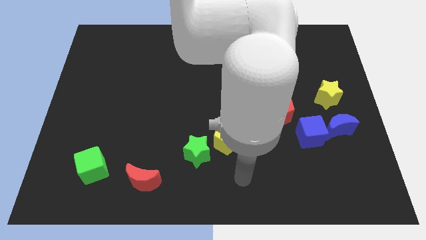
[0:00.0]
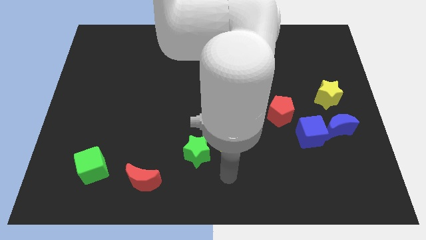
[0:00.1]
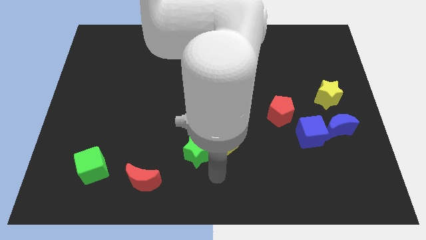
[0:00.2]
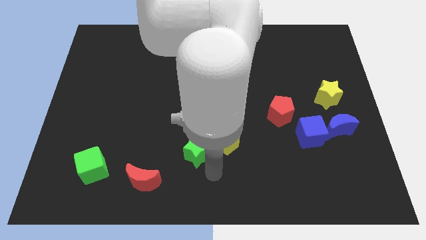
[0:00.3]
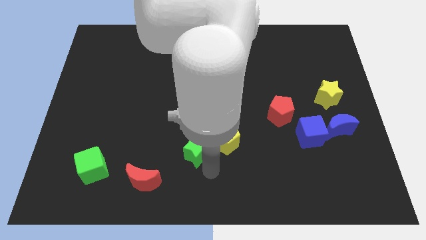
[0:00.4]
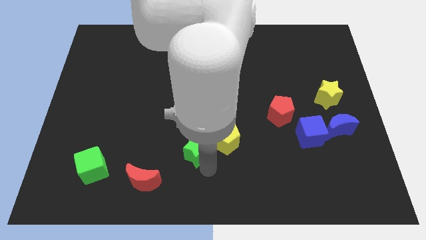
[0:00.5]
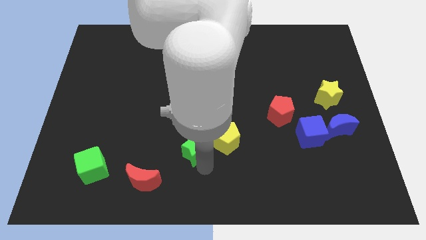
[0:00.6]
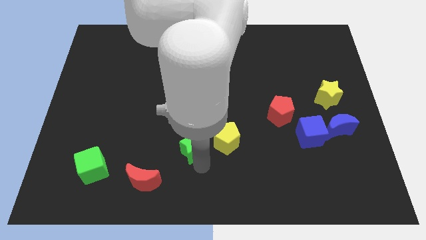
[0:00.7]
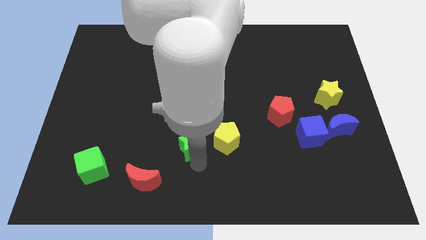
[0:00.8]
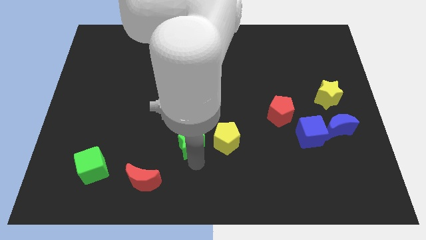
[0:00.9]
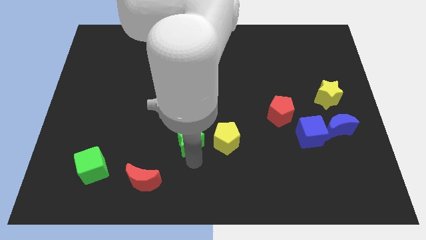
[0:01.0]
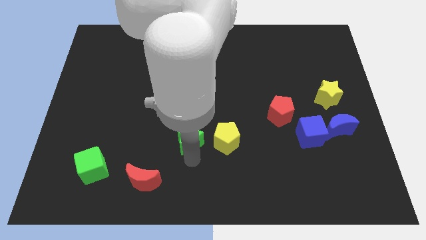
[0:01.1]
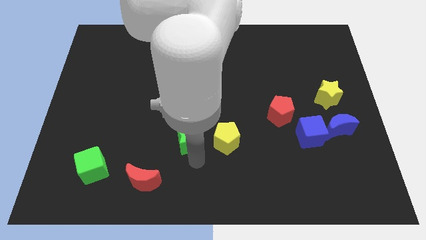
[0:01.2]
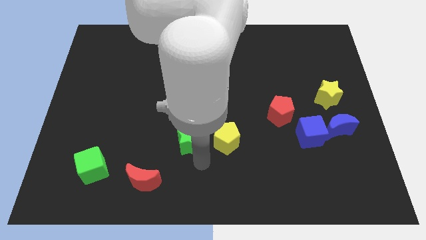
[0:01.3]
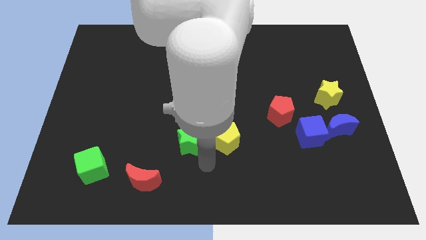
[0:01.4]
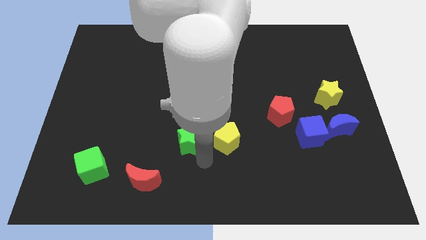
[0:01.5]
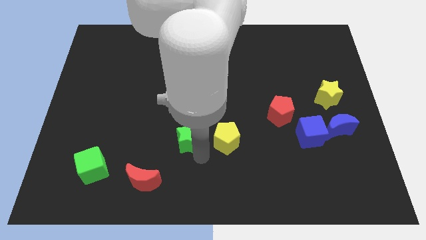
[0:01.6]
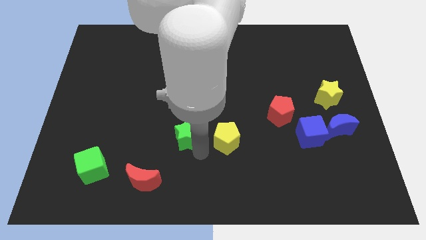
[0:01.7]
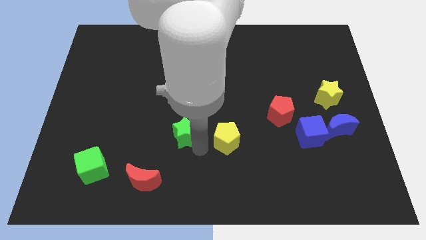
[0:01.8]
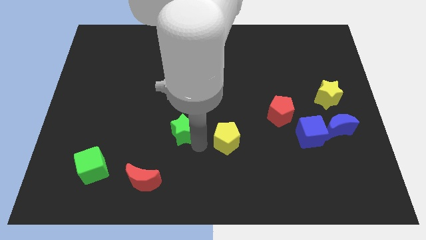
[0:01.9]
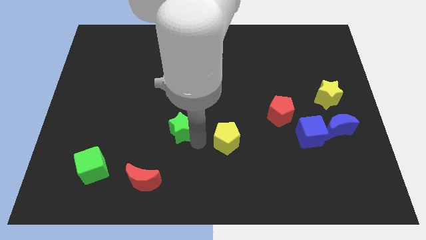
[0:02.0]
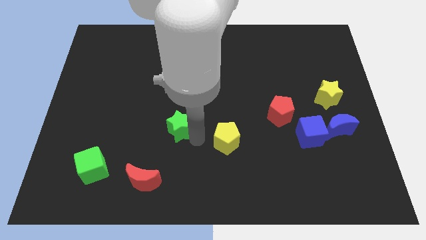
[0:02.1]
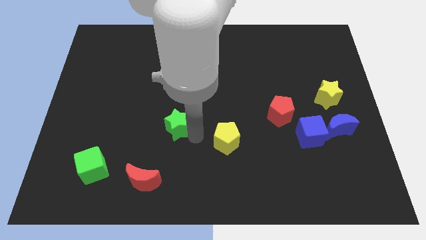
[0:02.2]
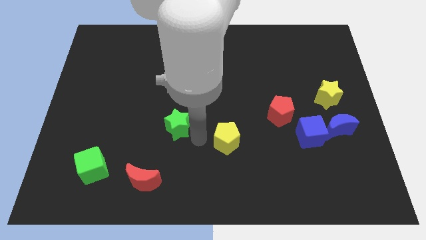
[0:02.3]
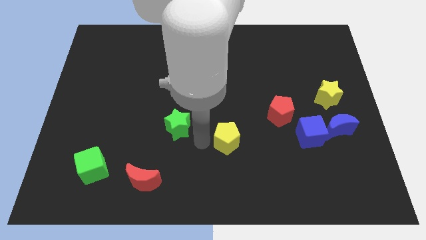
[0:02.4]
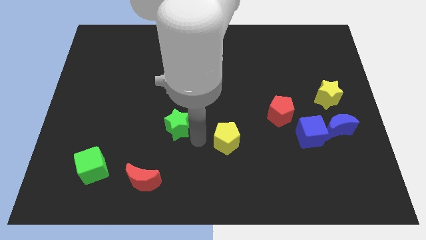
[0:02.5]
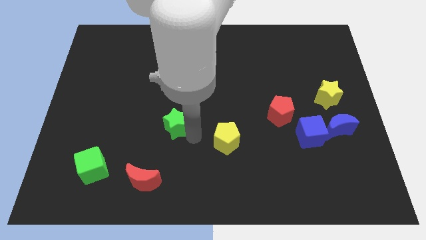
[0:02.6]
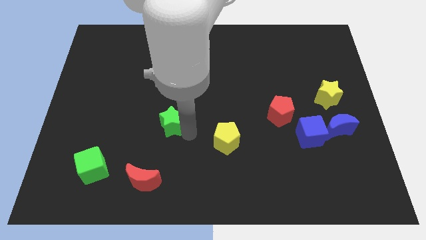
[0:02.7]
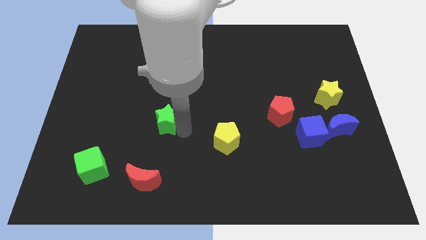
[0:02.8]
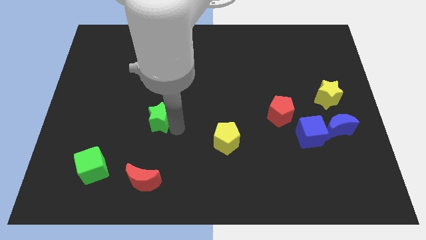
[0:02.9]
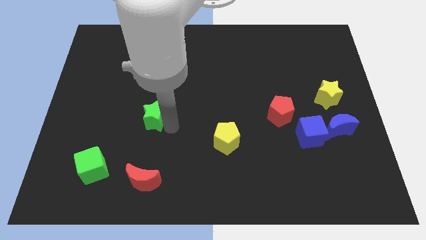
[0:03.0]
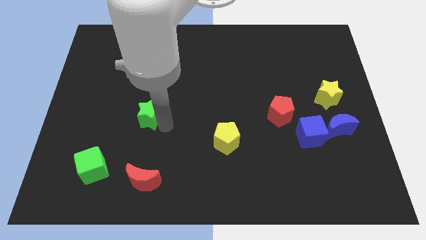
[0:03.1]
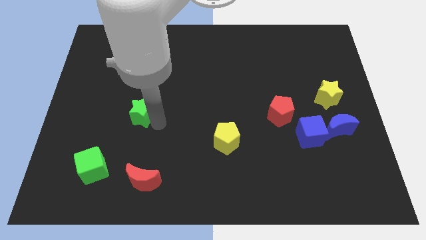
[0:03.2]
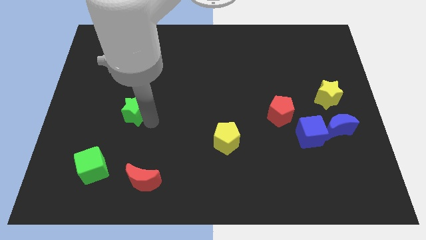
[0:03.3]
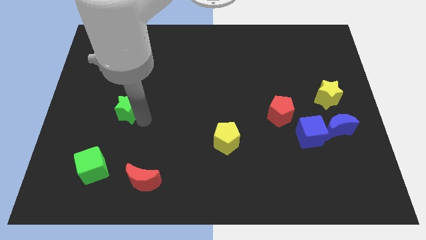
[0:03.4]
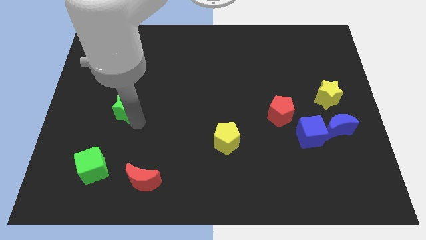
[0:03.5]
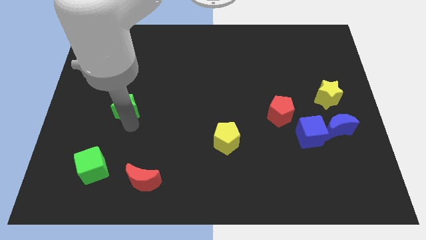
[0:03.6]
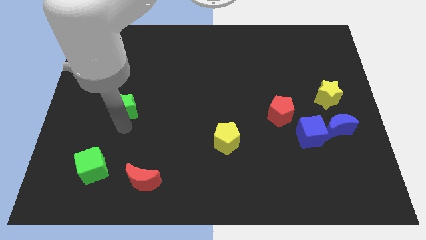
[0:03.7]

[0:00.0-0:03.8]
push the green star diagonally up and to the left

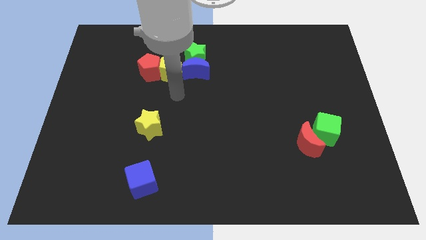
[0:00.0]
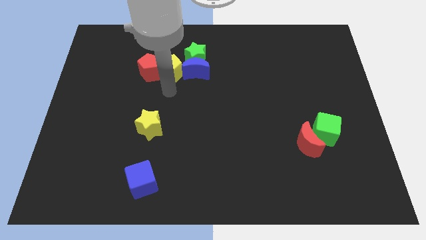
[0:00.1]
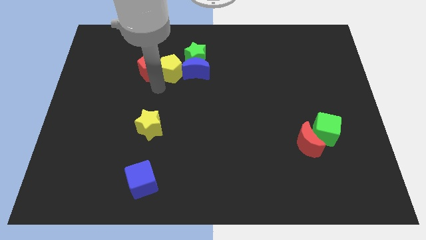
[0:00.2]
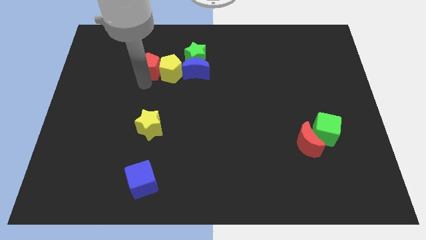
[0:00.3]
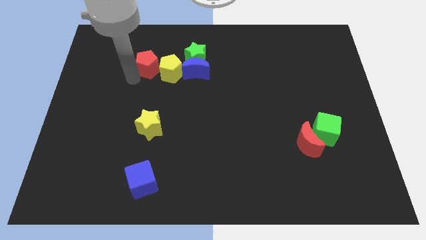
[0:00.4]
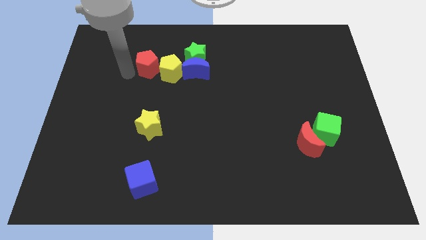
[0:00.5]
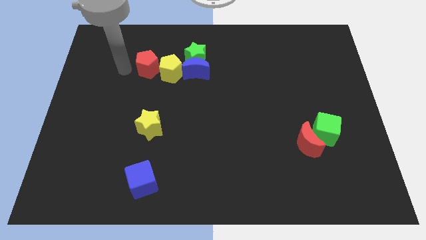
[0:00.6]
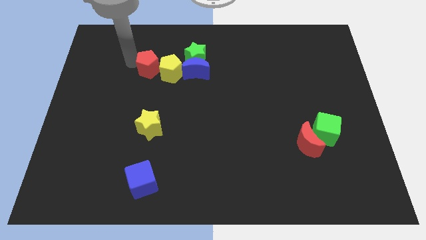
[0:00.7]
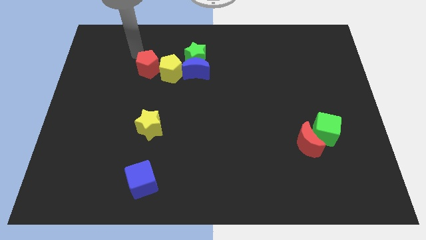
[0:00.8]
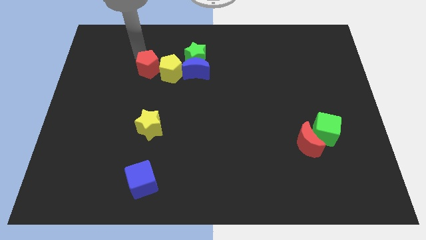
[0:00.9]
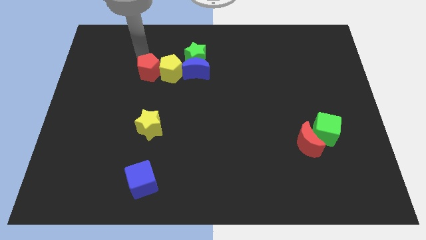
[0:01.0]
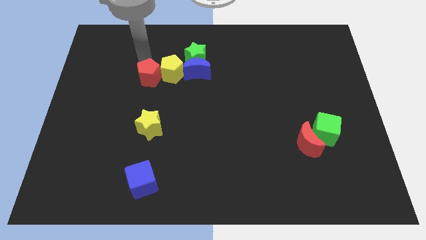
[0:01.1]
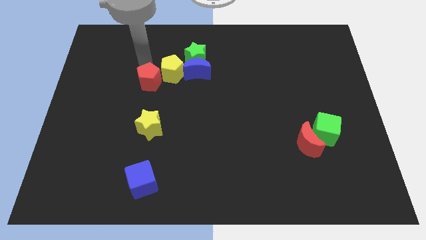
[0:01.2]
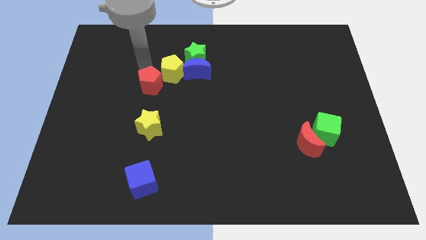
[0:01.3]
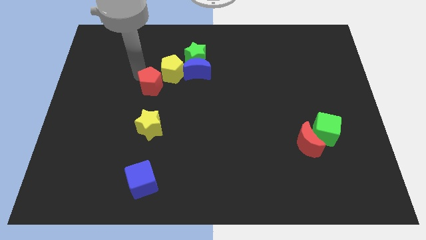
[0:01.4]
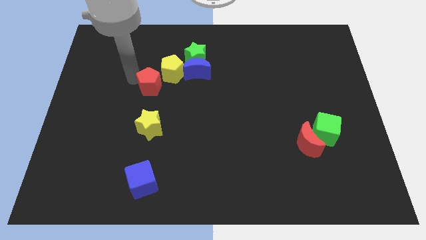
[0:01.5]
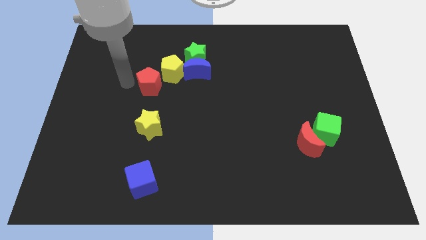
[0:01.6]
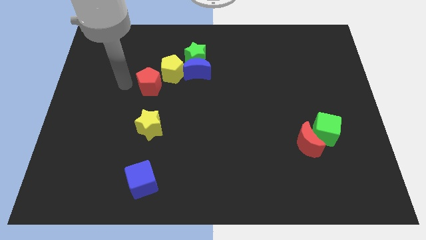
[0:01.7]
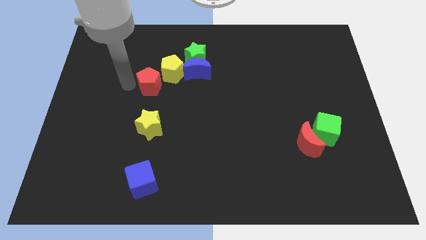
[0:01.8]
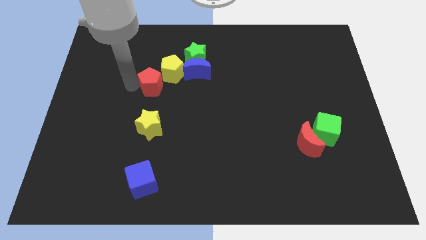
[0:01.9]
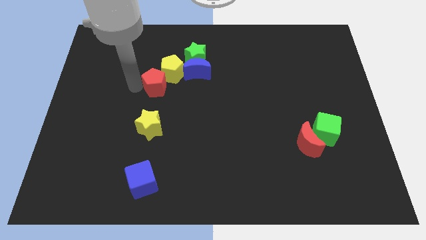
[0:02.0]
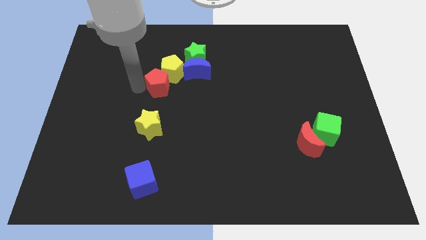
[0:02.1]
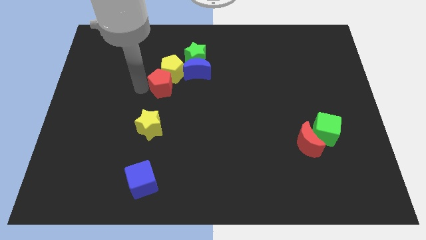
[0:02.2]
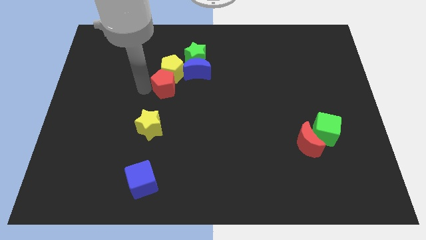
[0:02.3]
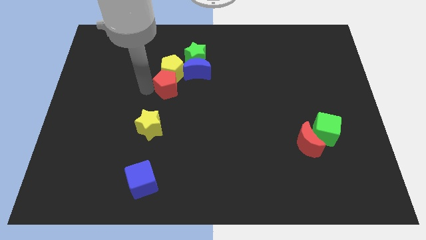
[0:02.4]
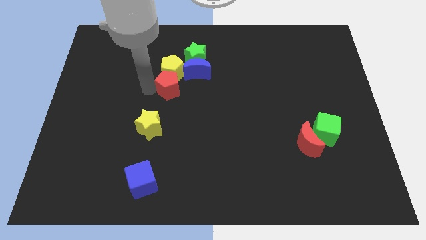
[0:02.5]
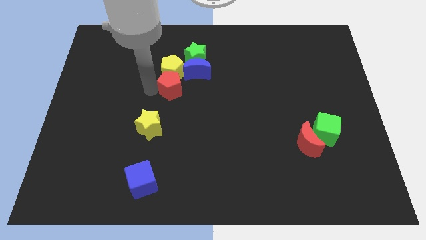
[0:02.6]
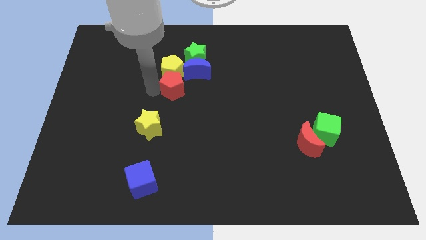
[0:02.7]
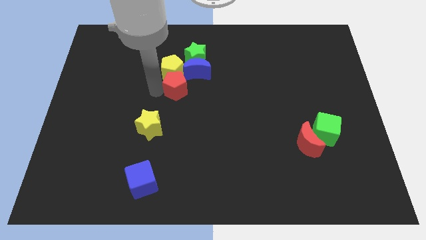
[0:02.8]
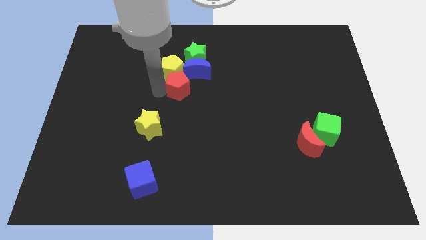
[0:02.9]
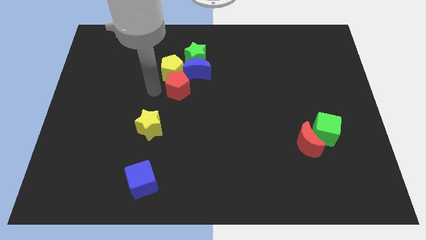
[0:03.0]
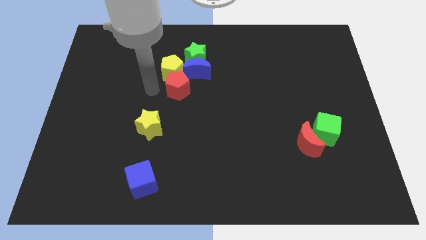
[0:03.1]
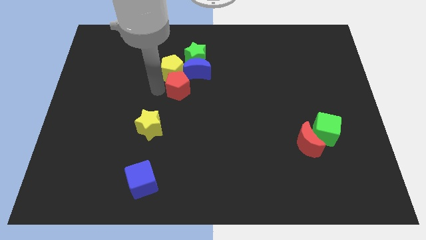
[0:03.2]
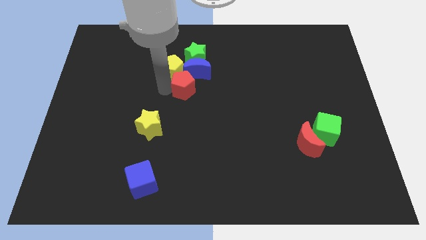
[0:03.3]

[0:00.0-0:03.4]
push the red pentagon a little bit to the right

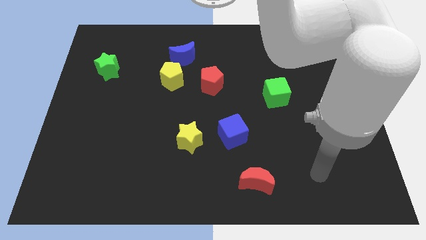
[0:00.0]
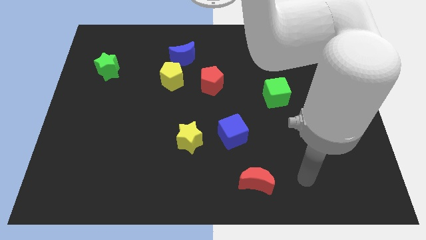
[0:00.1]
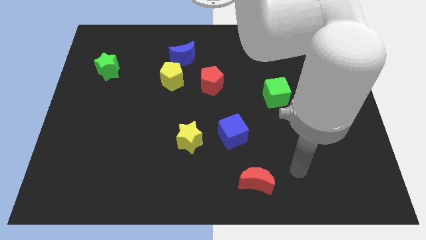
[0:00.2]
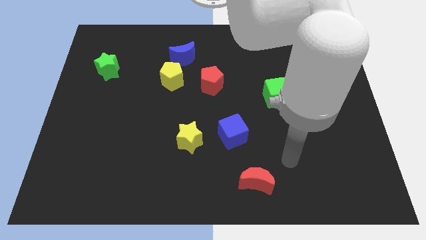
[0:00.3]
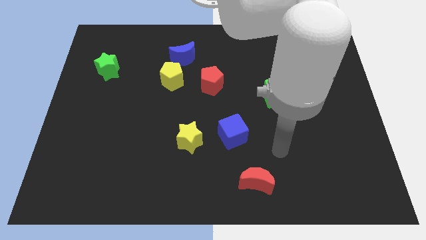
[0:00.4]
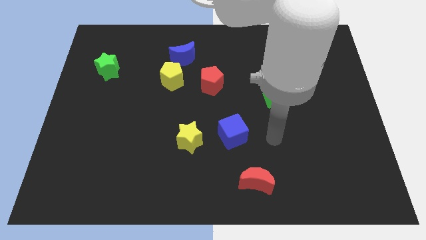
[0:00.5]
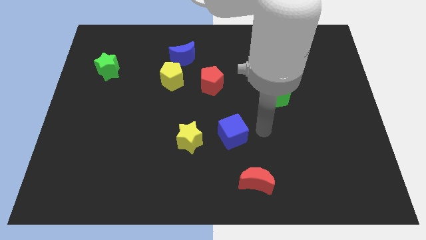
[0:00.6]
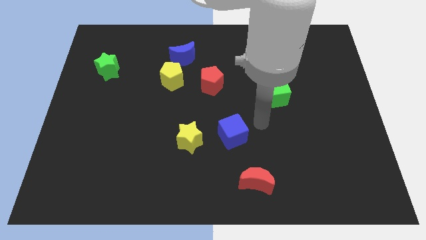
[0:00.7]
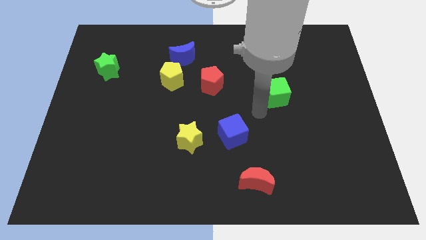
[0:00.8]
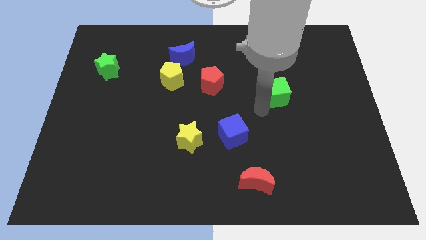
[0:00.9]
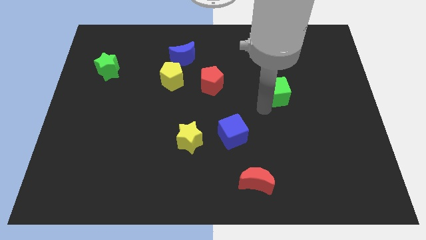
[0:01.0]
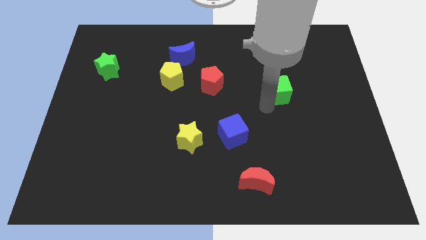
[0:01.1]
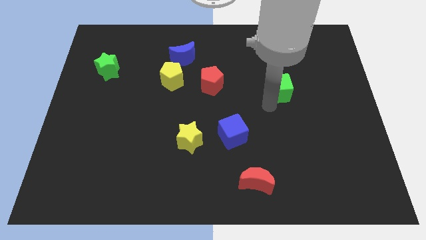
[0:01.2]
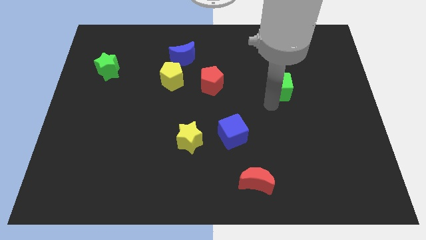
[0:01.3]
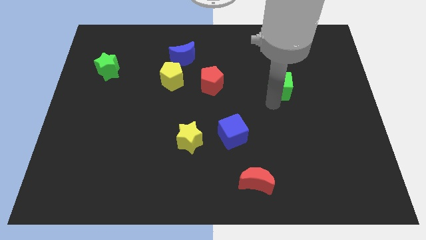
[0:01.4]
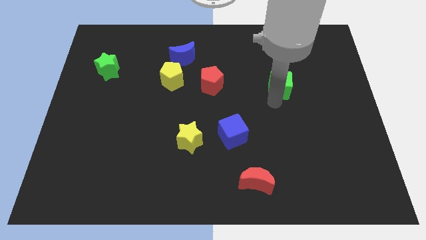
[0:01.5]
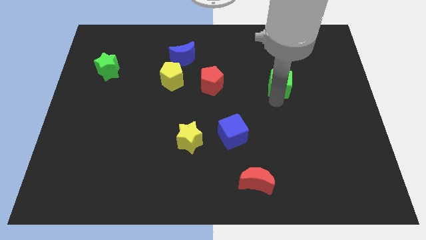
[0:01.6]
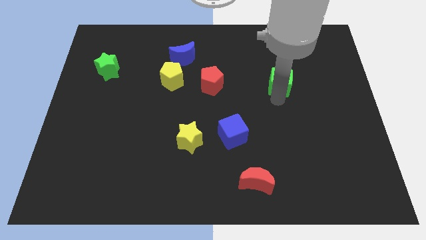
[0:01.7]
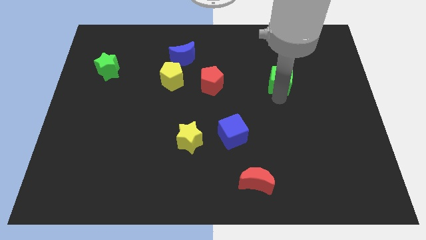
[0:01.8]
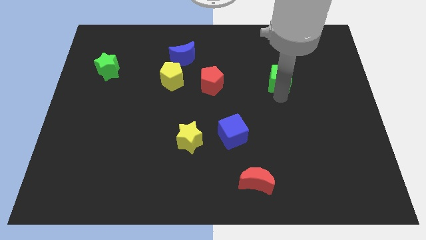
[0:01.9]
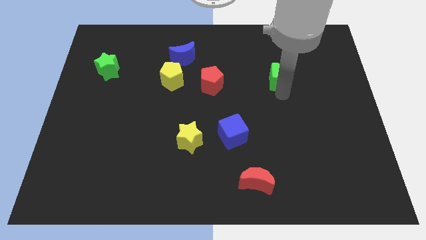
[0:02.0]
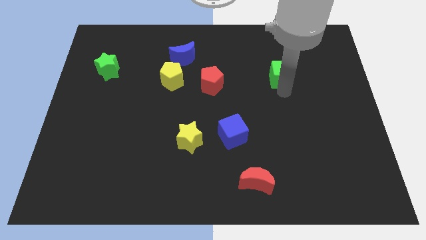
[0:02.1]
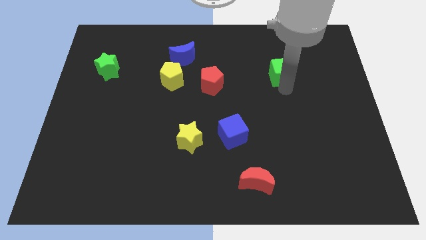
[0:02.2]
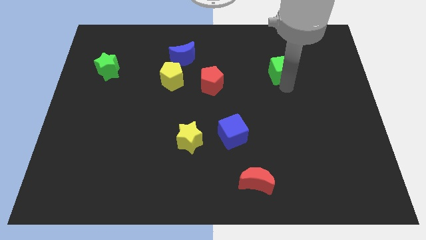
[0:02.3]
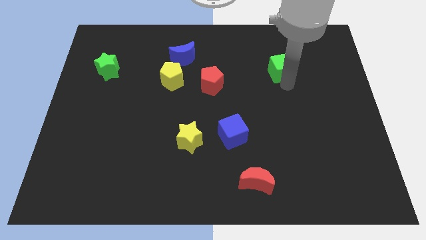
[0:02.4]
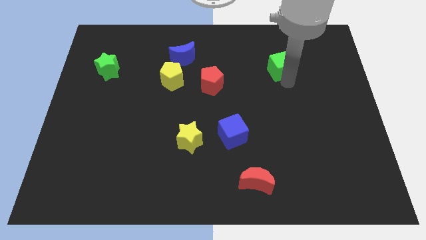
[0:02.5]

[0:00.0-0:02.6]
slide the green cube a bit up and then to the right
